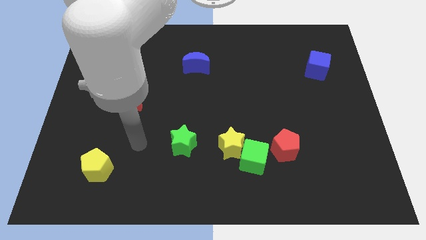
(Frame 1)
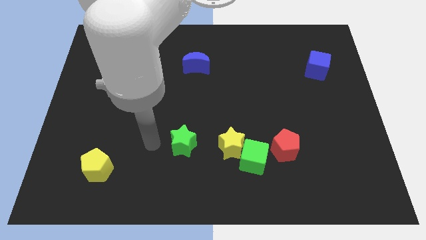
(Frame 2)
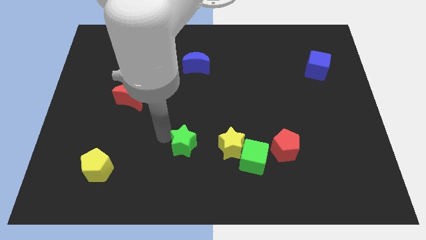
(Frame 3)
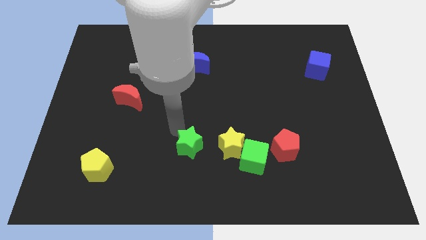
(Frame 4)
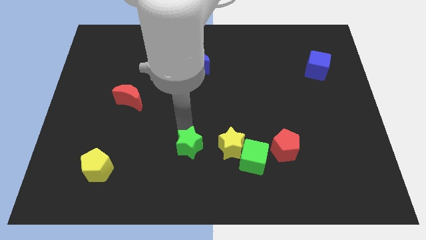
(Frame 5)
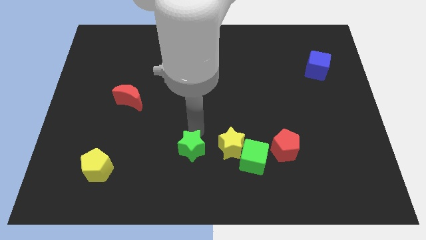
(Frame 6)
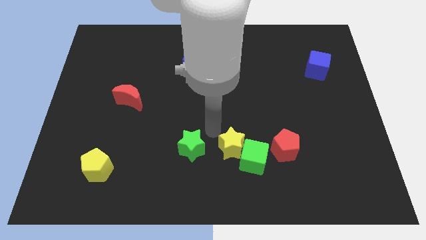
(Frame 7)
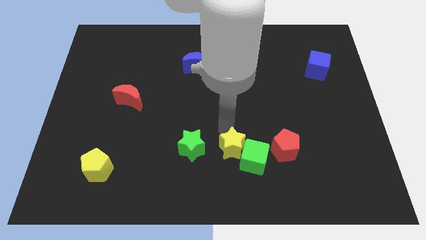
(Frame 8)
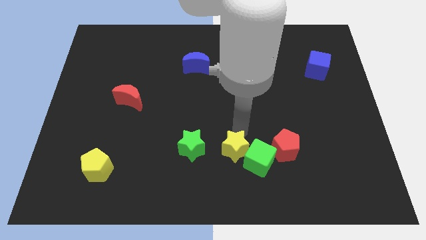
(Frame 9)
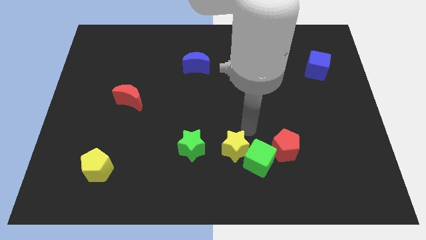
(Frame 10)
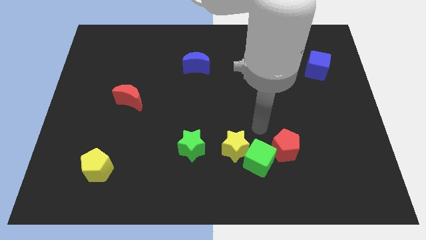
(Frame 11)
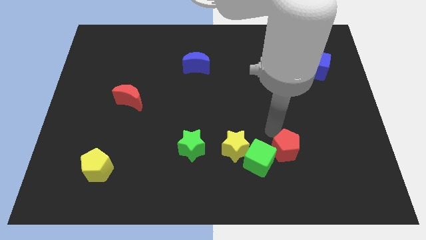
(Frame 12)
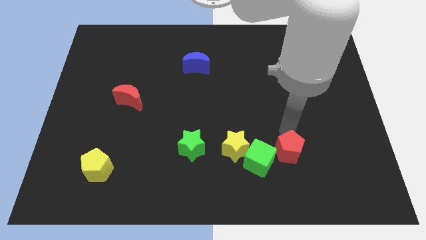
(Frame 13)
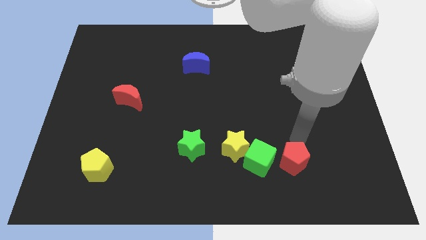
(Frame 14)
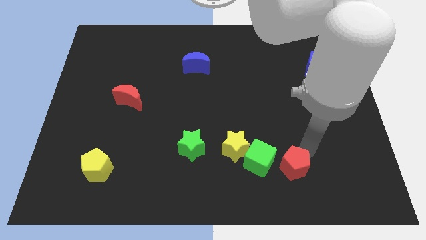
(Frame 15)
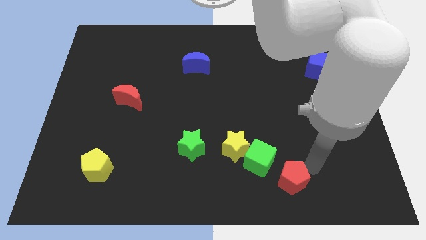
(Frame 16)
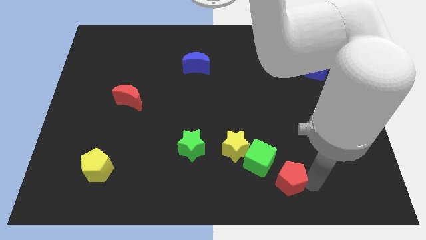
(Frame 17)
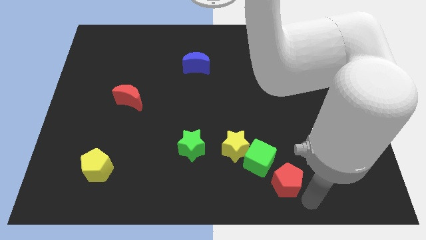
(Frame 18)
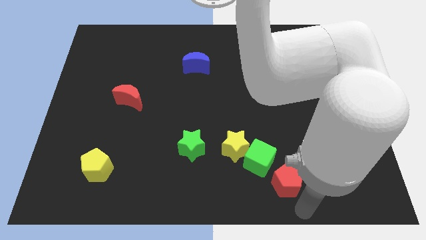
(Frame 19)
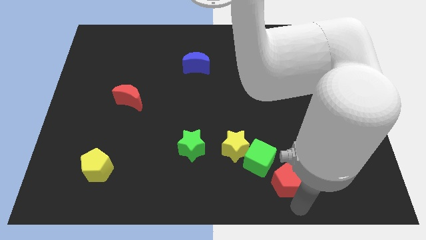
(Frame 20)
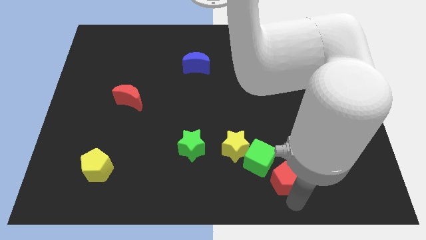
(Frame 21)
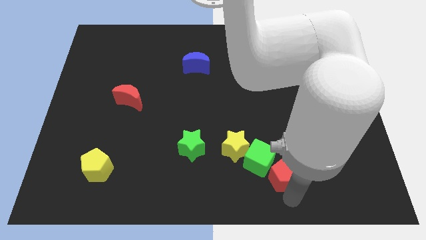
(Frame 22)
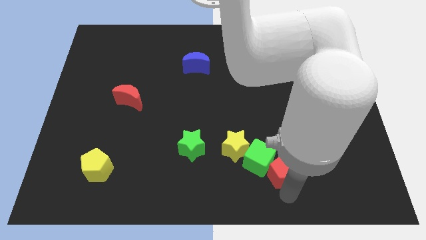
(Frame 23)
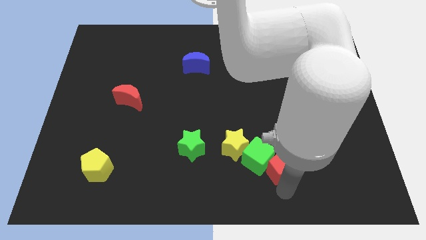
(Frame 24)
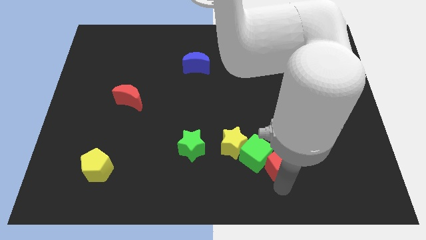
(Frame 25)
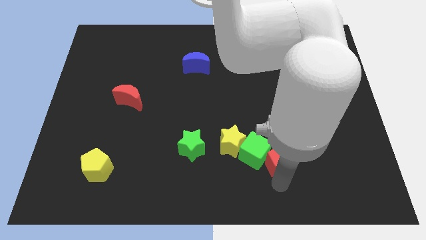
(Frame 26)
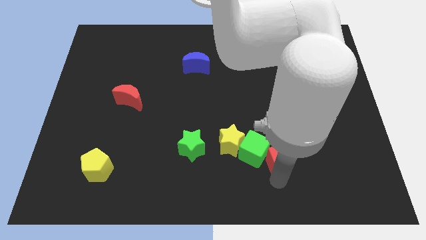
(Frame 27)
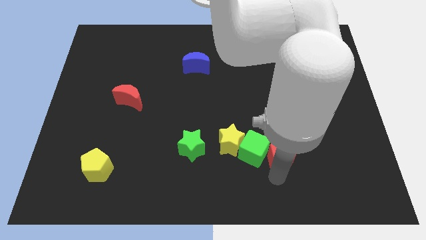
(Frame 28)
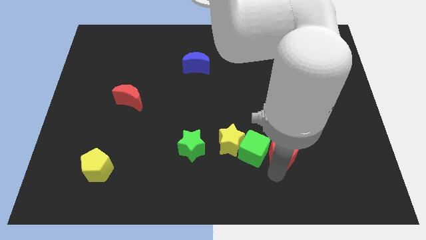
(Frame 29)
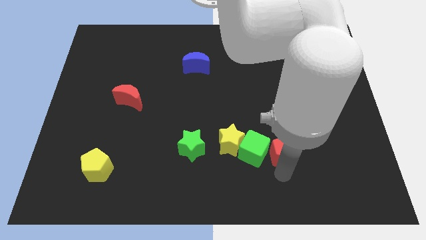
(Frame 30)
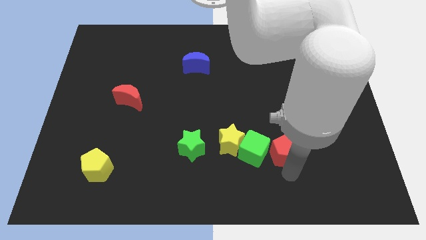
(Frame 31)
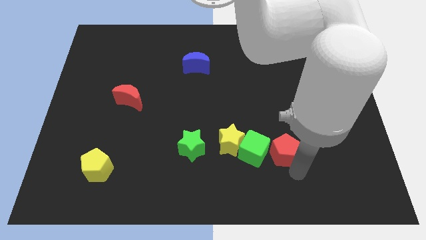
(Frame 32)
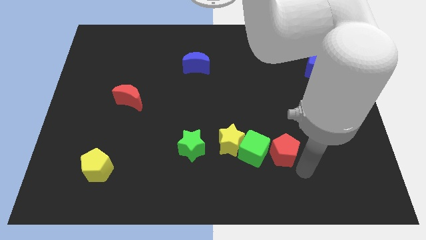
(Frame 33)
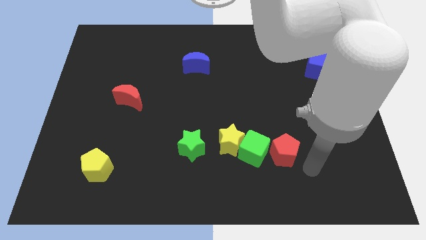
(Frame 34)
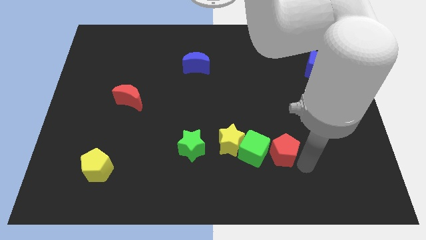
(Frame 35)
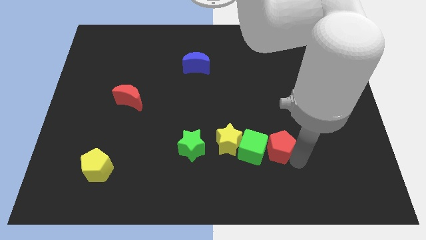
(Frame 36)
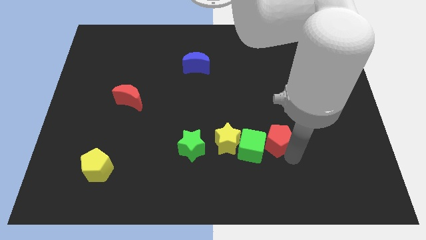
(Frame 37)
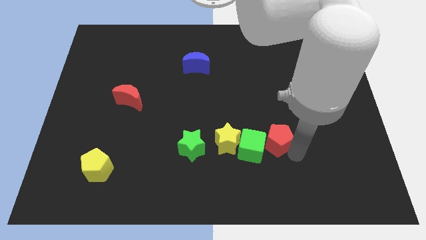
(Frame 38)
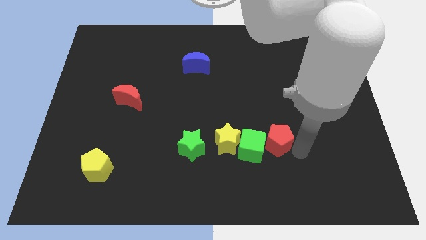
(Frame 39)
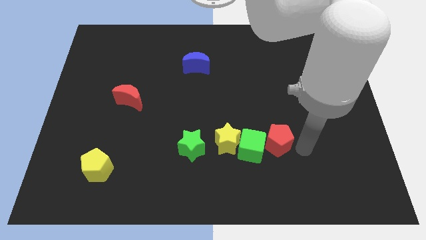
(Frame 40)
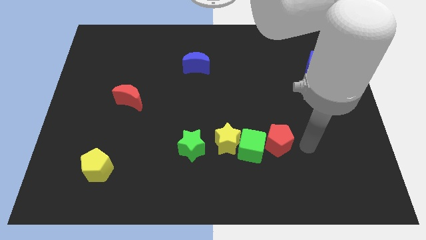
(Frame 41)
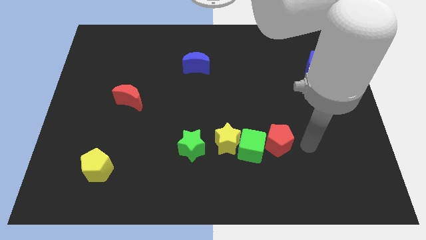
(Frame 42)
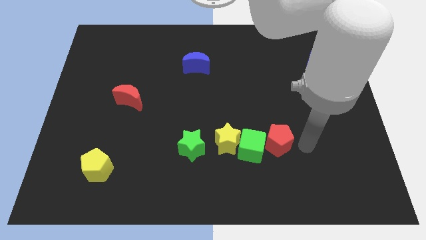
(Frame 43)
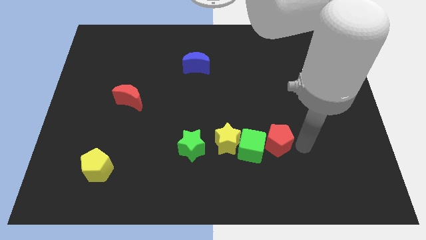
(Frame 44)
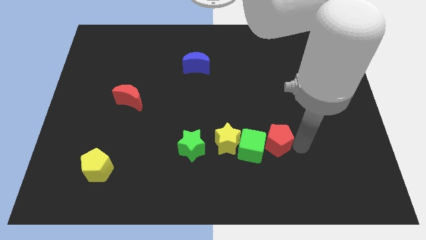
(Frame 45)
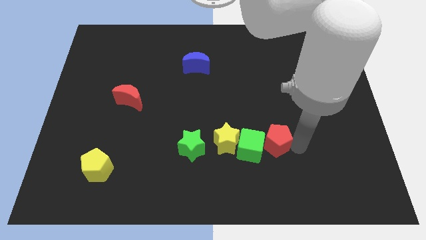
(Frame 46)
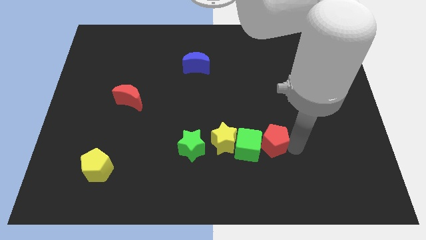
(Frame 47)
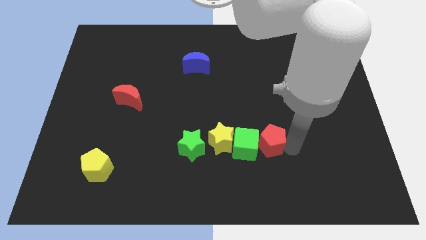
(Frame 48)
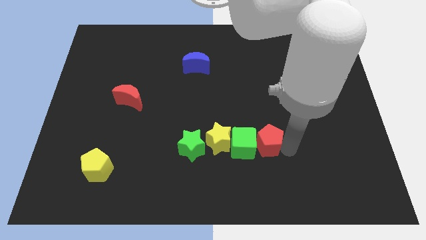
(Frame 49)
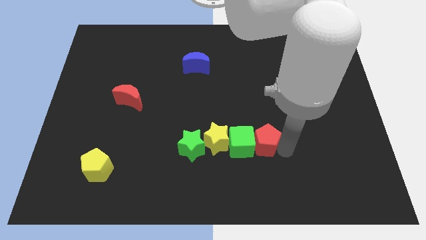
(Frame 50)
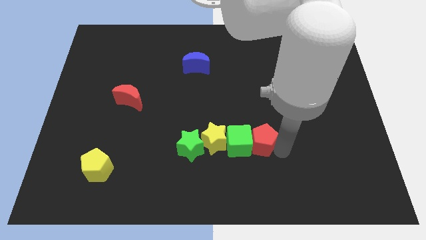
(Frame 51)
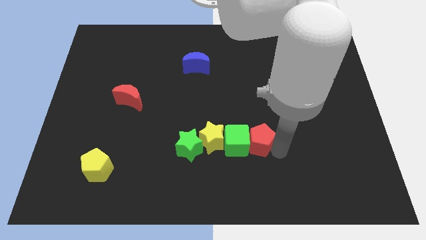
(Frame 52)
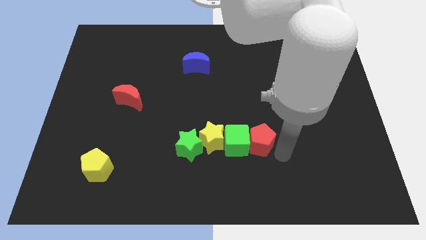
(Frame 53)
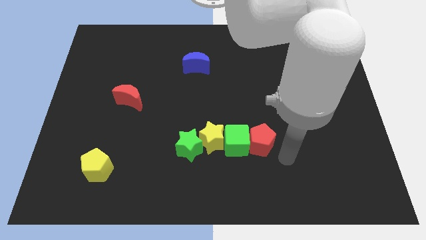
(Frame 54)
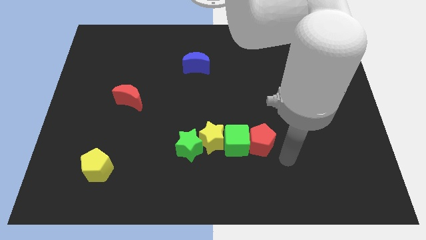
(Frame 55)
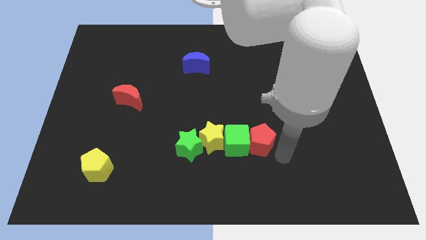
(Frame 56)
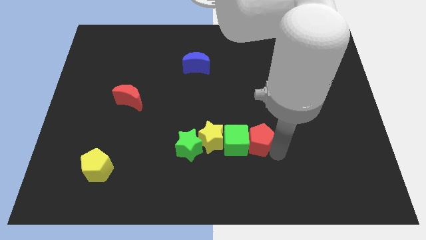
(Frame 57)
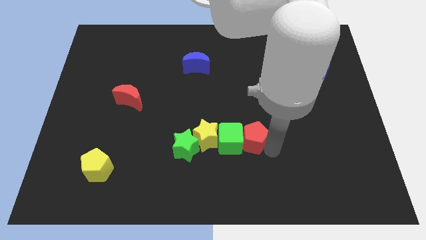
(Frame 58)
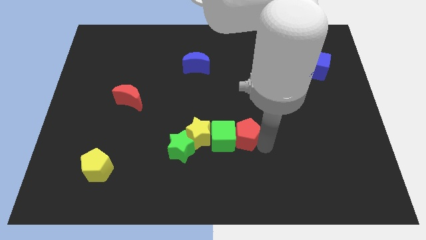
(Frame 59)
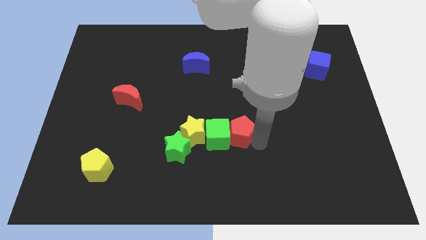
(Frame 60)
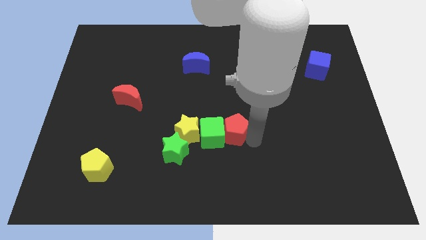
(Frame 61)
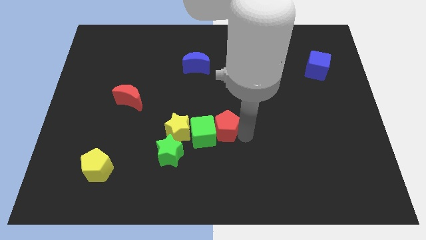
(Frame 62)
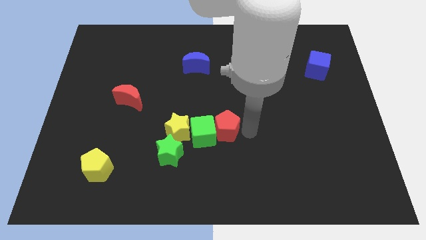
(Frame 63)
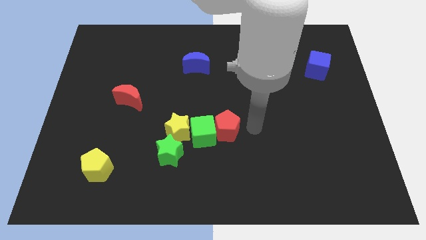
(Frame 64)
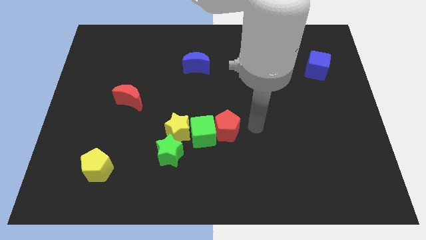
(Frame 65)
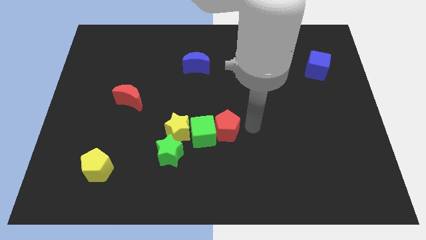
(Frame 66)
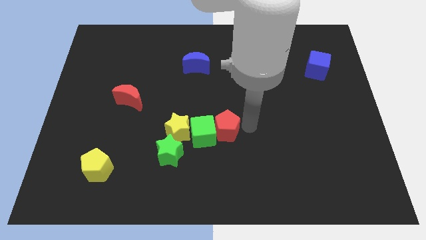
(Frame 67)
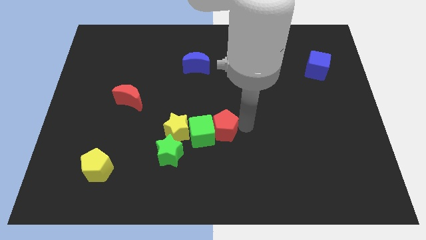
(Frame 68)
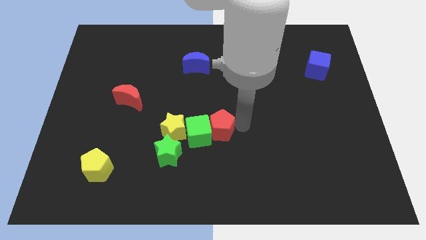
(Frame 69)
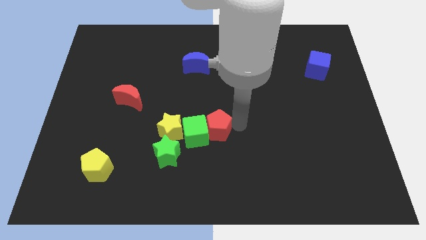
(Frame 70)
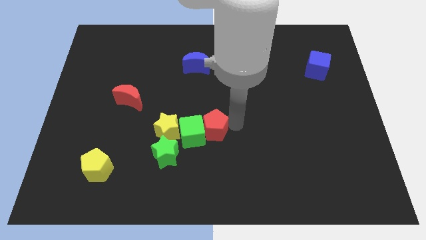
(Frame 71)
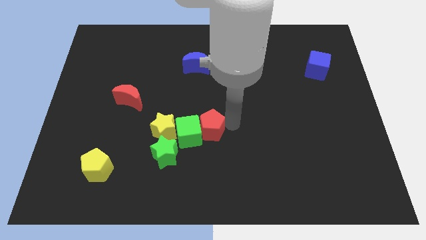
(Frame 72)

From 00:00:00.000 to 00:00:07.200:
push the red pentagon diagonally up and to the right of the green star

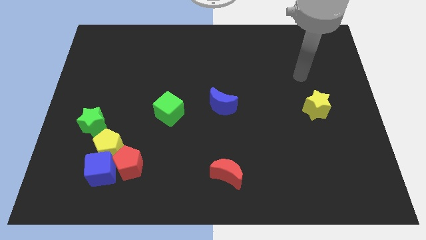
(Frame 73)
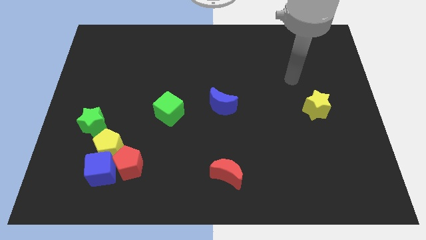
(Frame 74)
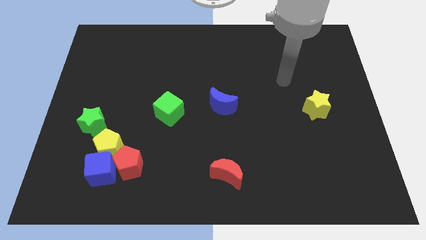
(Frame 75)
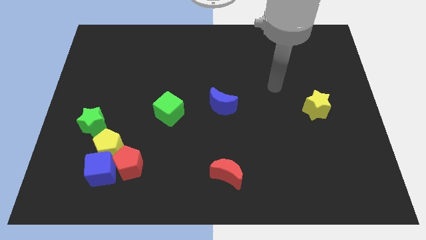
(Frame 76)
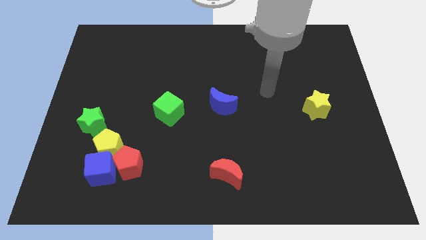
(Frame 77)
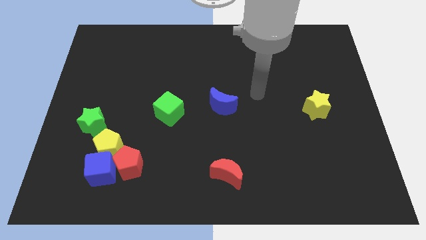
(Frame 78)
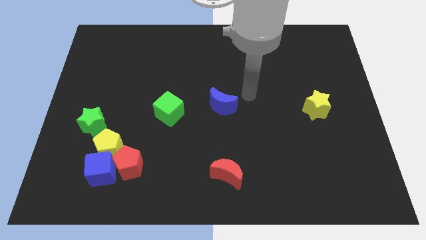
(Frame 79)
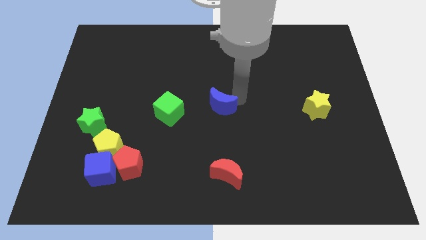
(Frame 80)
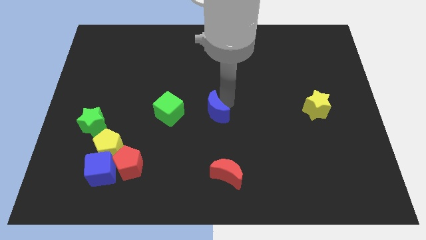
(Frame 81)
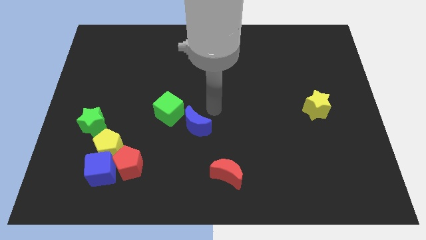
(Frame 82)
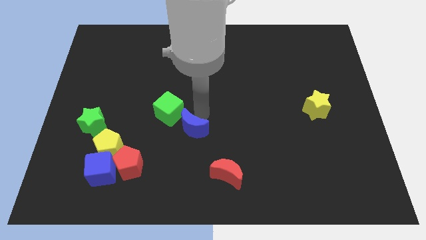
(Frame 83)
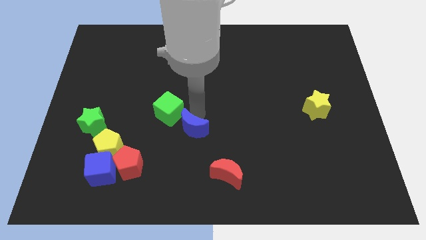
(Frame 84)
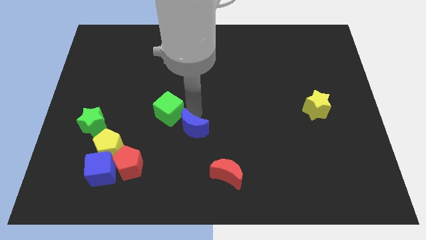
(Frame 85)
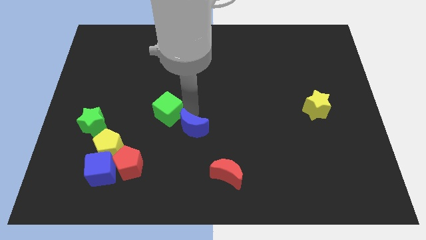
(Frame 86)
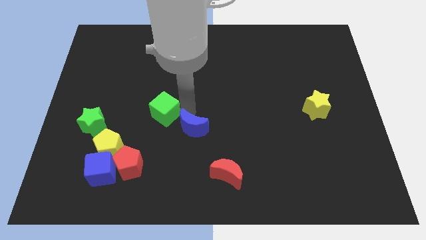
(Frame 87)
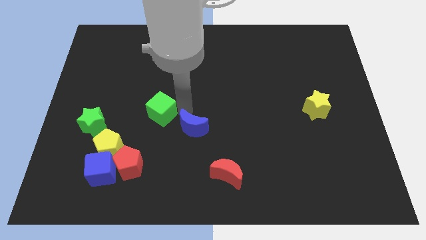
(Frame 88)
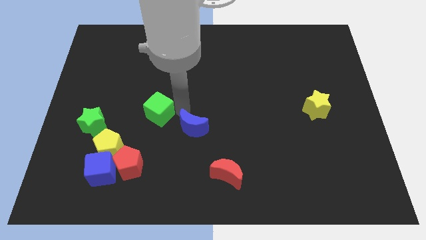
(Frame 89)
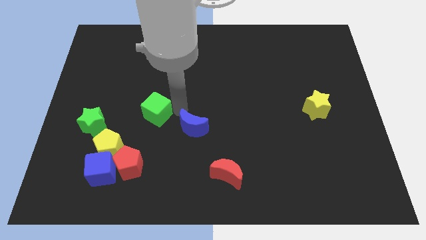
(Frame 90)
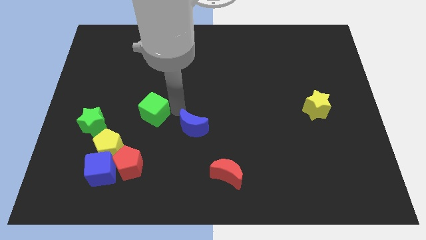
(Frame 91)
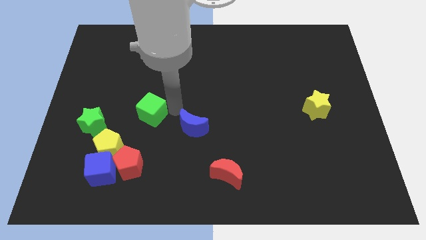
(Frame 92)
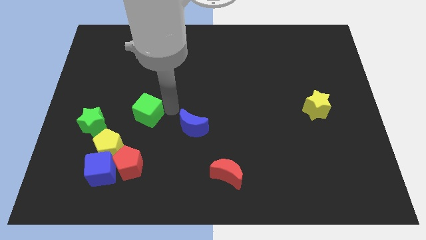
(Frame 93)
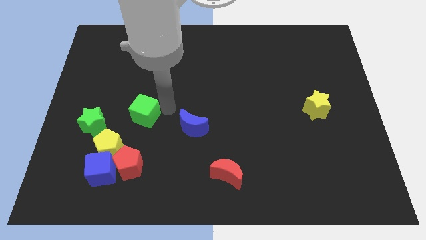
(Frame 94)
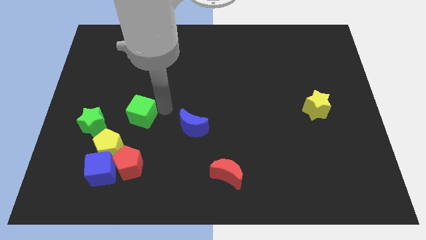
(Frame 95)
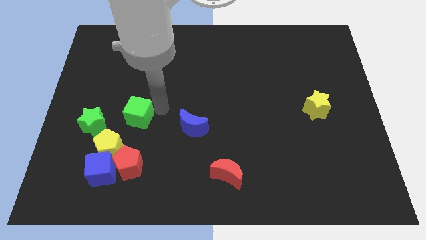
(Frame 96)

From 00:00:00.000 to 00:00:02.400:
put the green cube diagonally up and to the right of the green star
